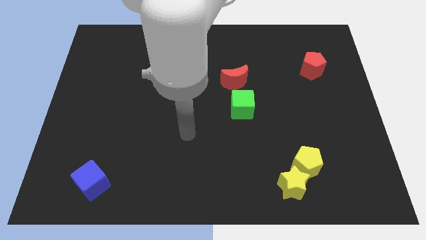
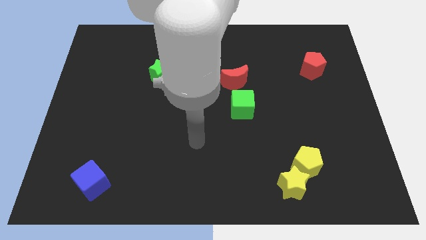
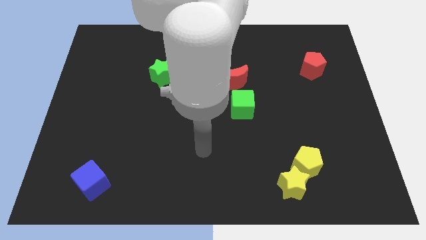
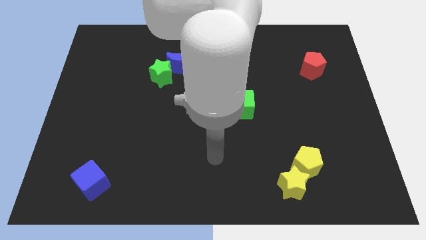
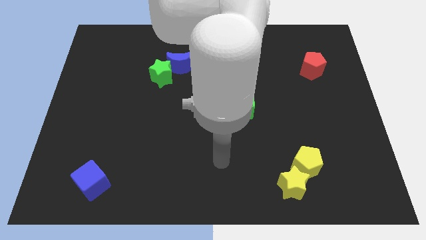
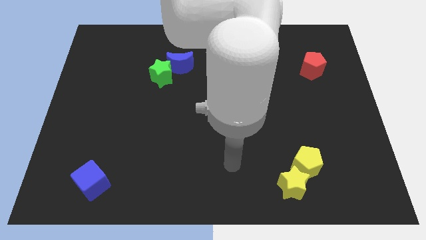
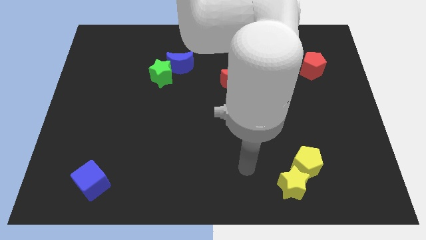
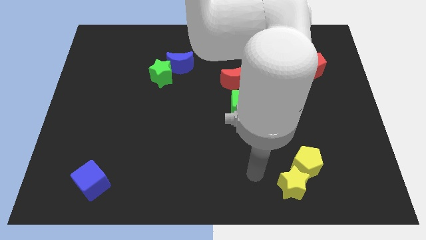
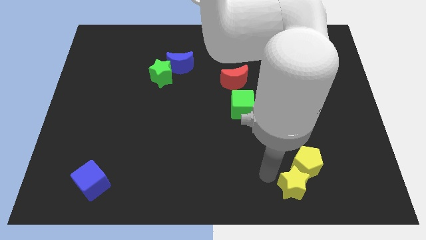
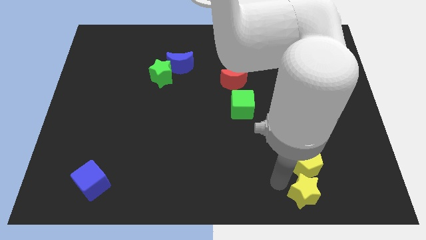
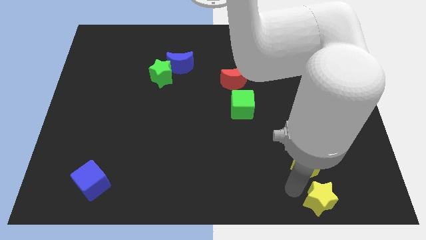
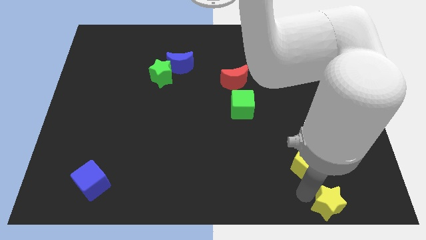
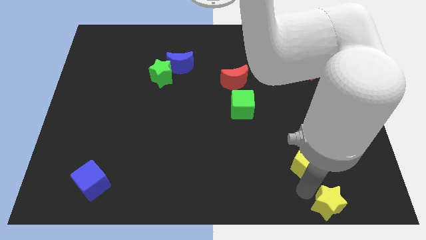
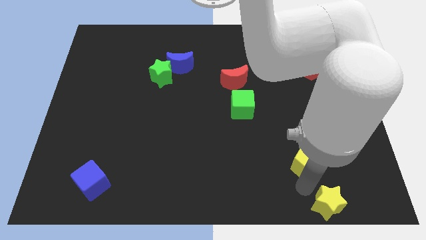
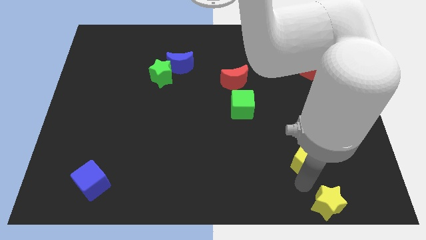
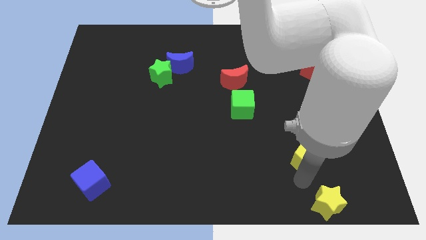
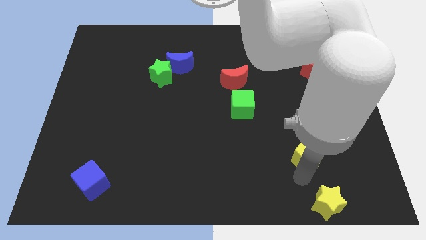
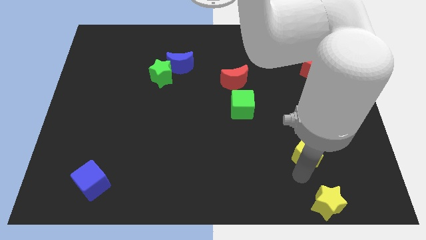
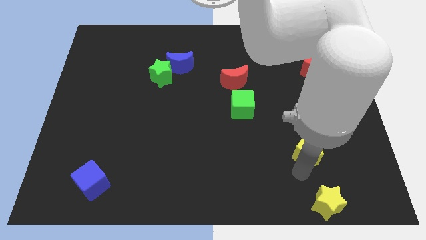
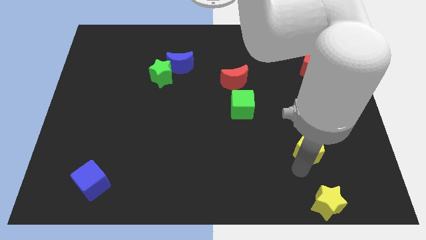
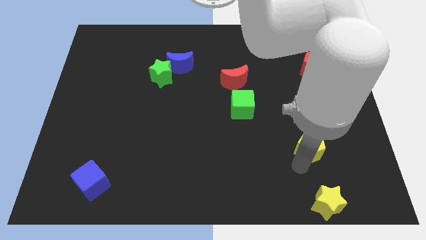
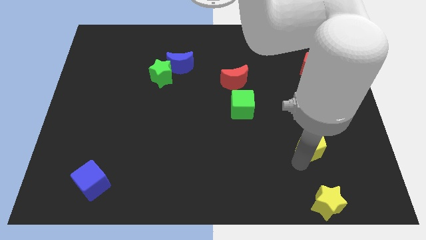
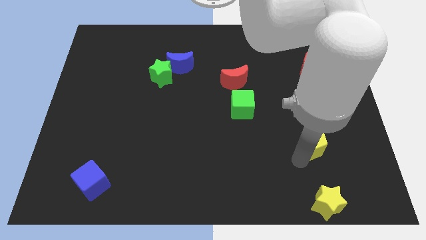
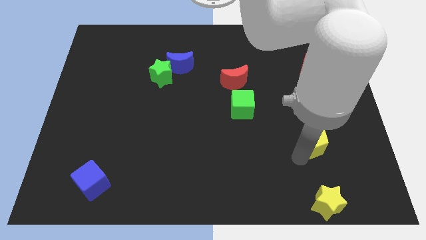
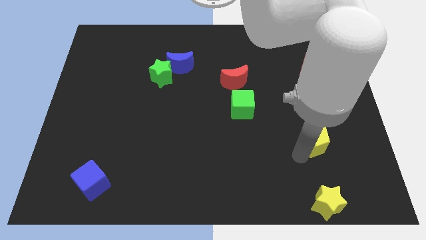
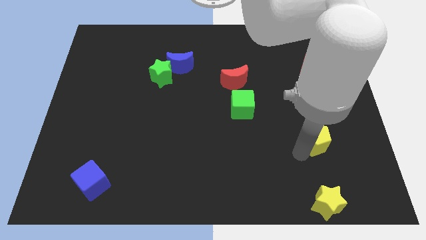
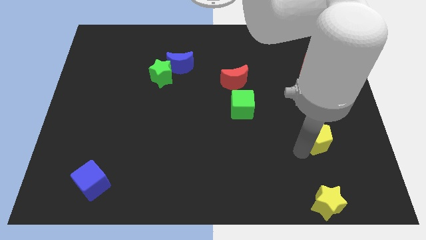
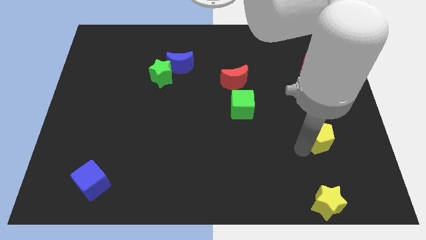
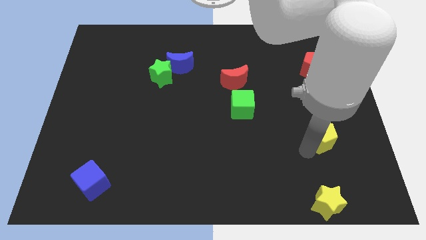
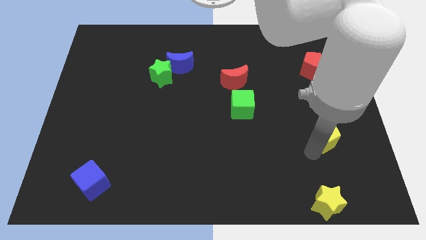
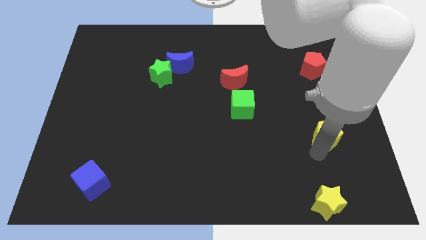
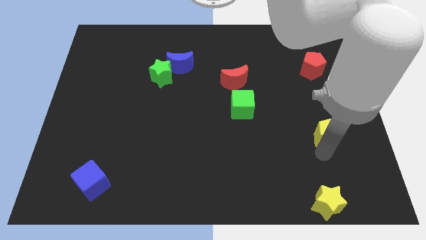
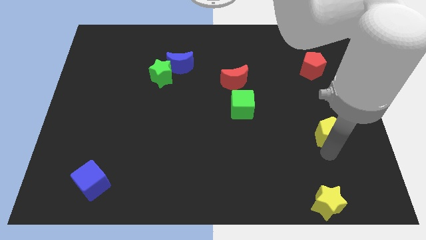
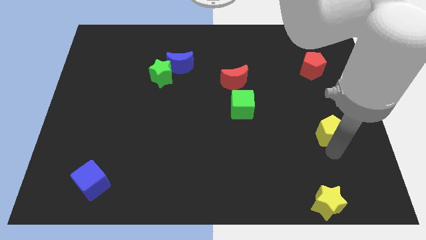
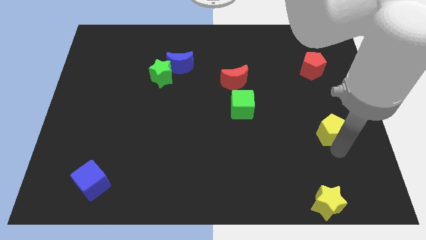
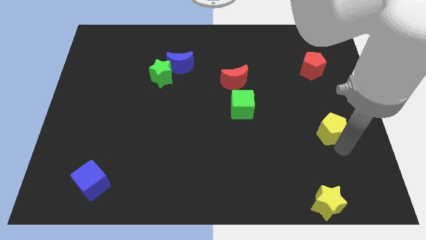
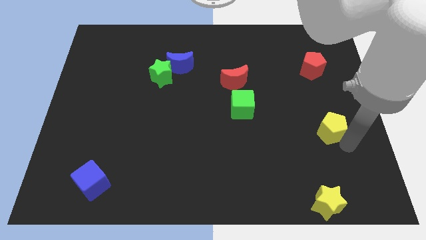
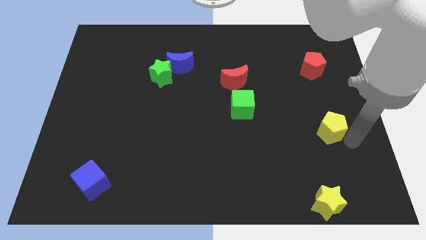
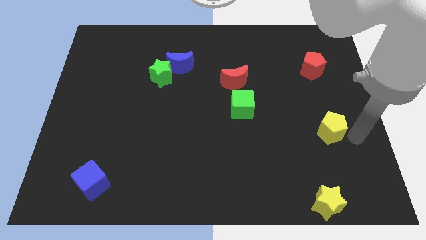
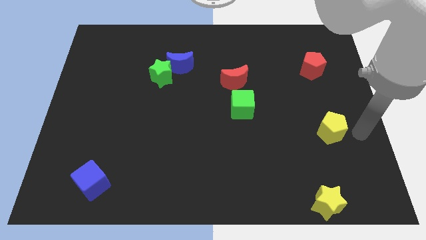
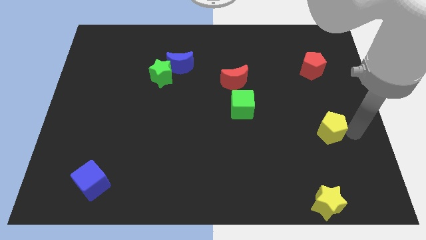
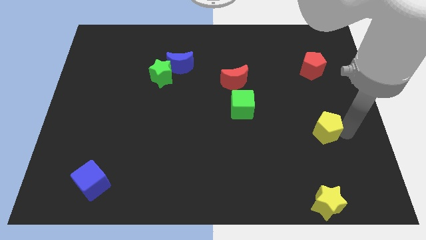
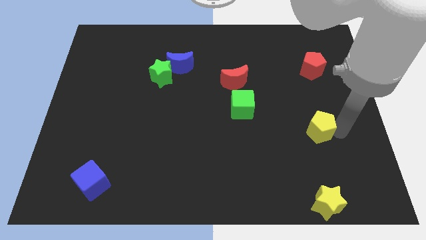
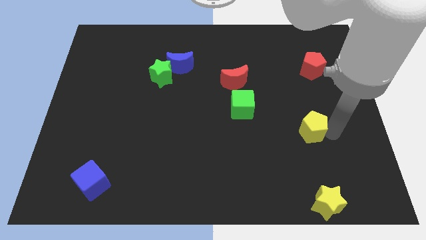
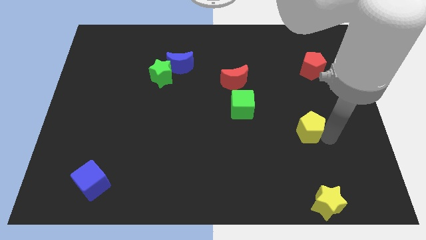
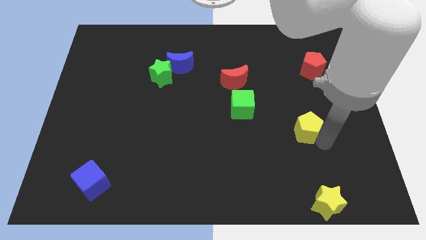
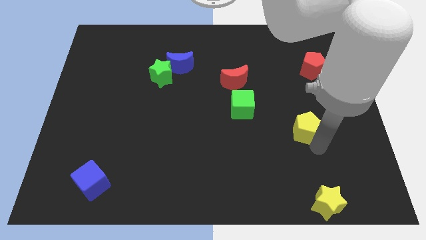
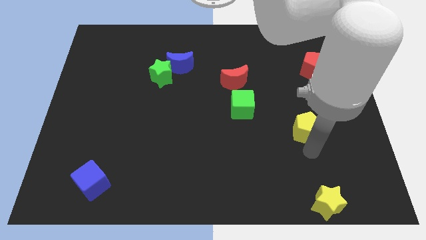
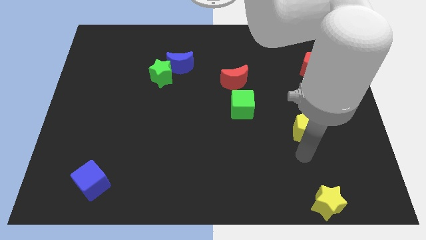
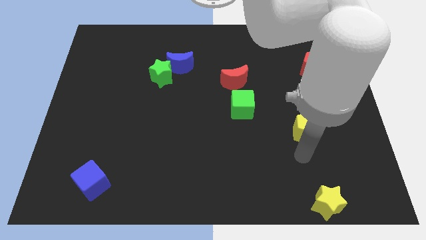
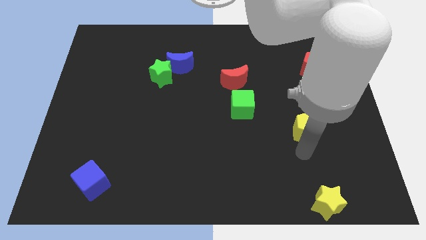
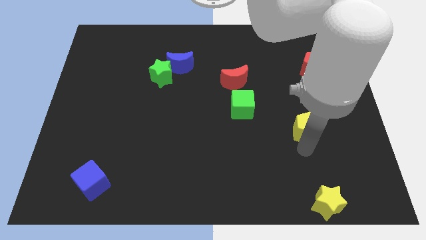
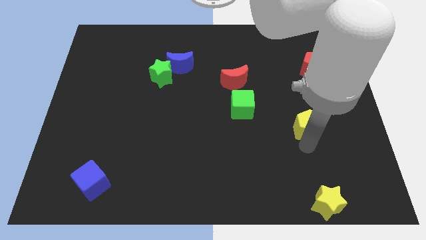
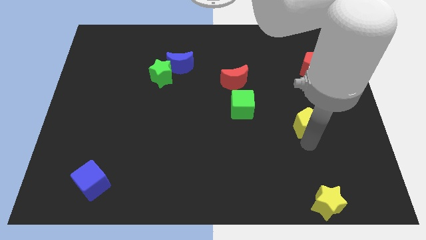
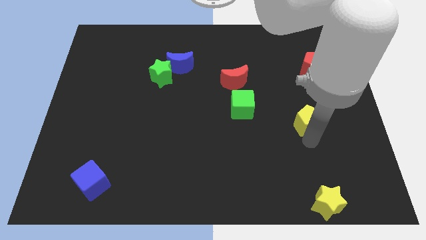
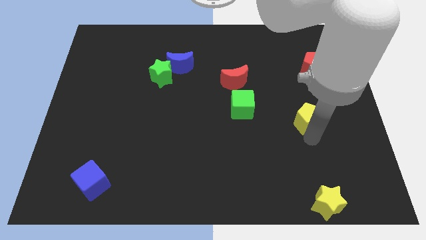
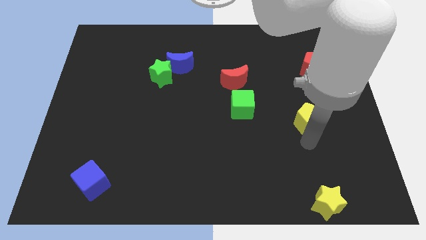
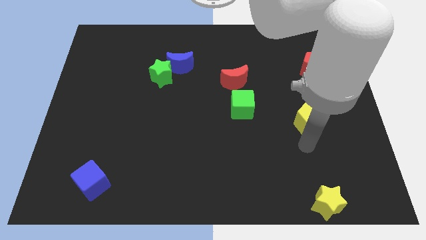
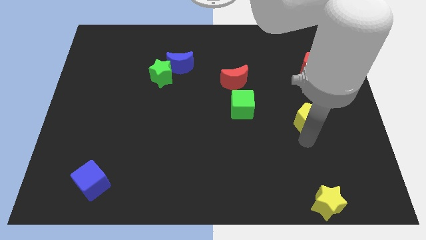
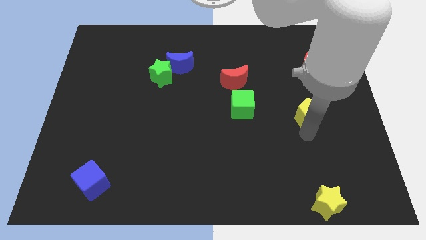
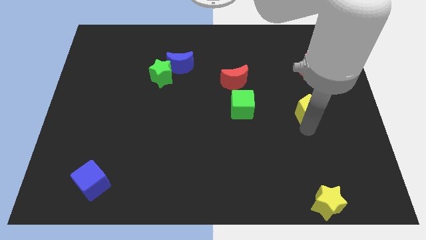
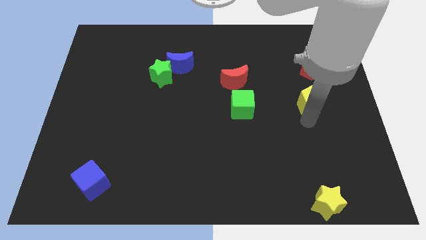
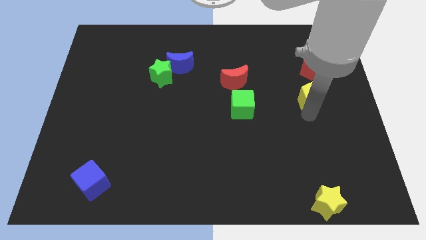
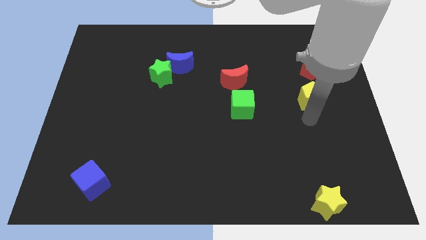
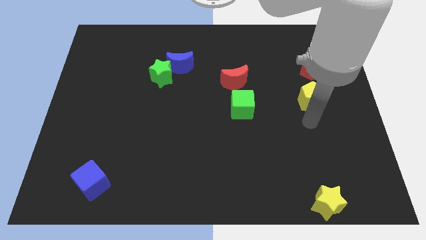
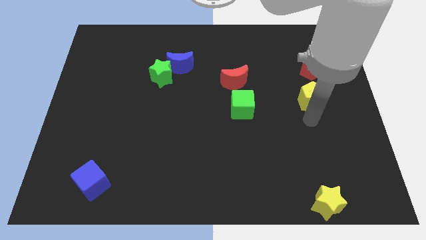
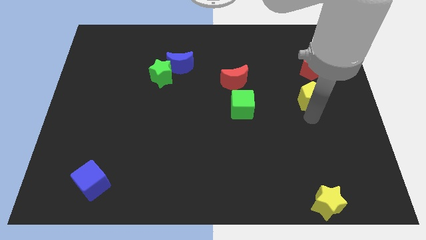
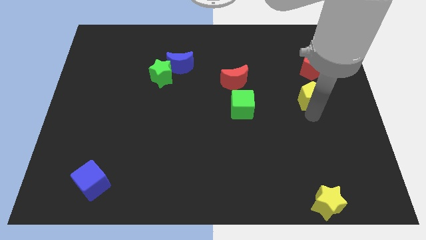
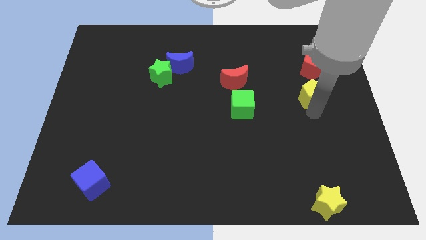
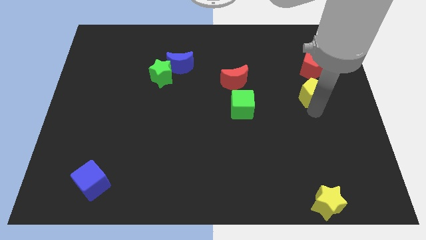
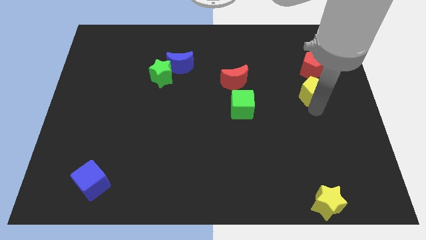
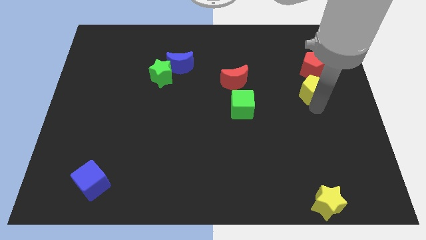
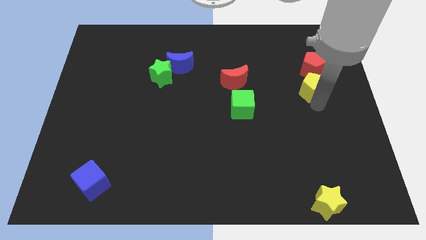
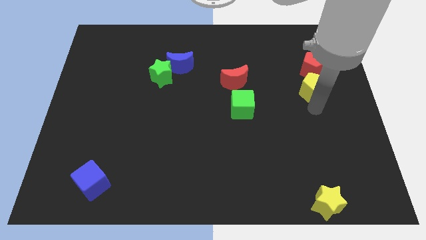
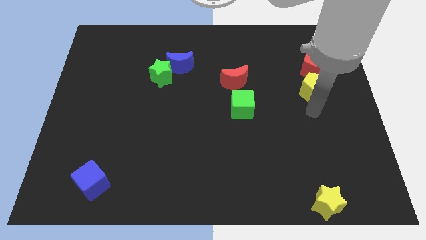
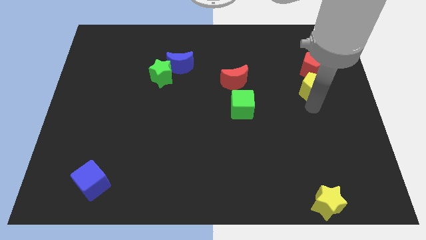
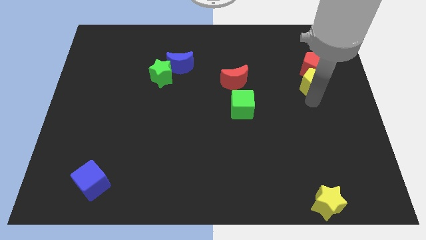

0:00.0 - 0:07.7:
slide the yellow pentagon close to the red pentagon

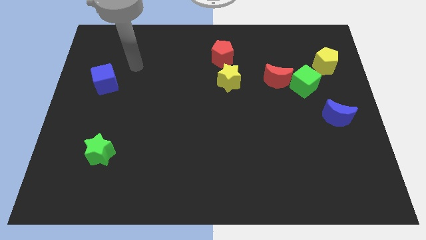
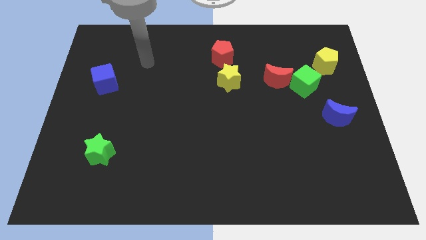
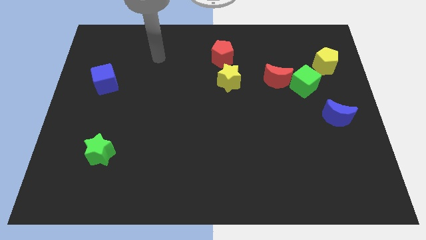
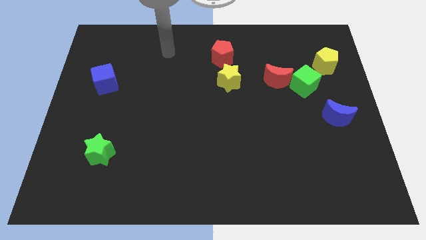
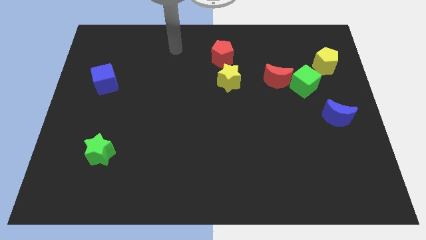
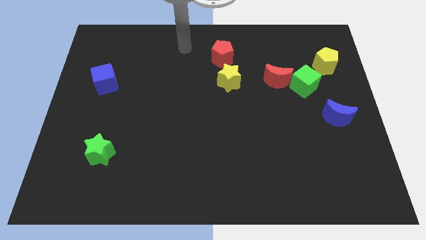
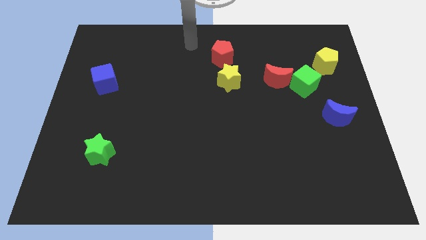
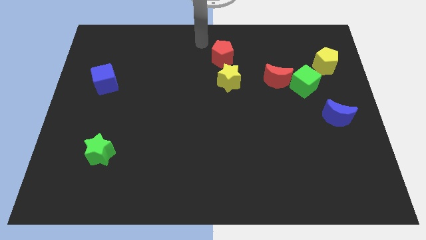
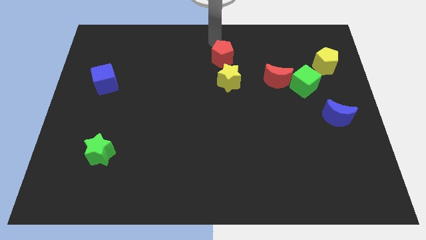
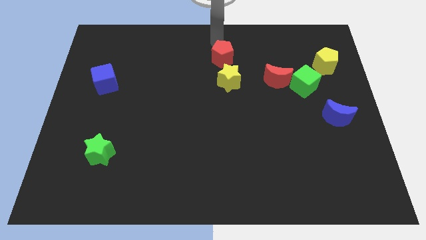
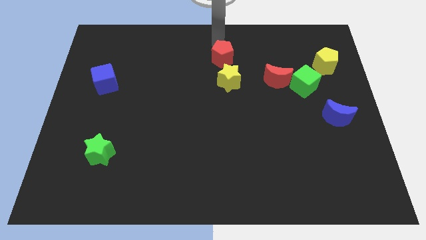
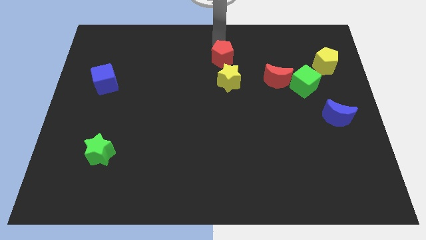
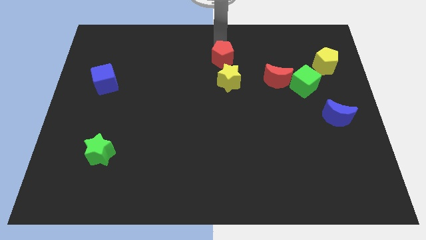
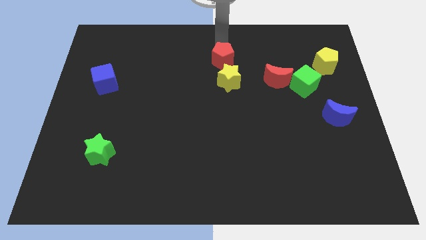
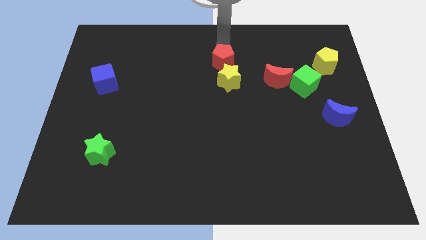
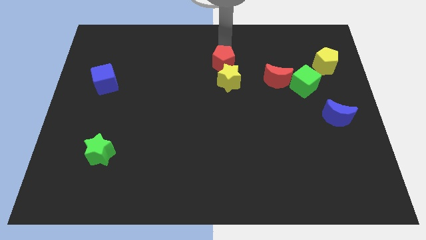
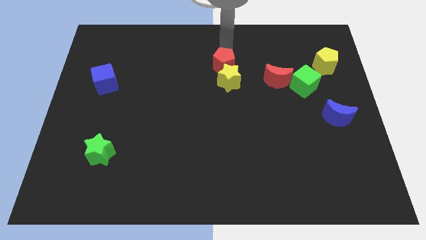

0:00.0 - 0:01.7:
push the red pentagon close to the yellow star
